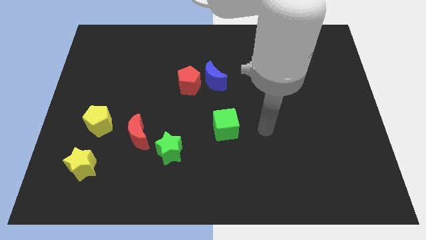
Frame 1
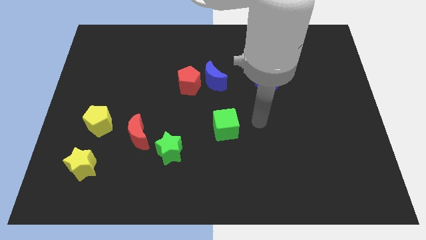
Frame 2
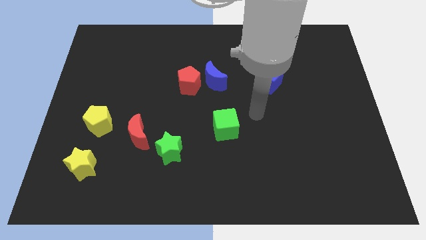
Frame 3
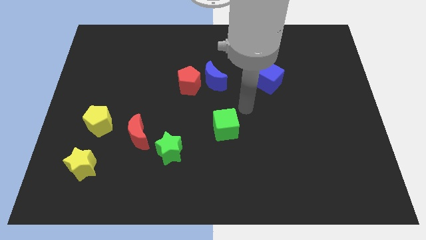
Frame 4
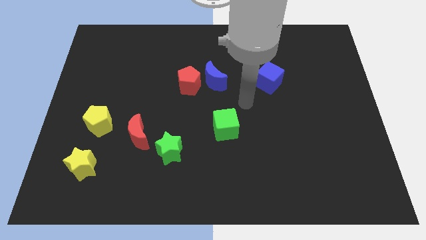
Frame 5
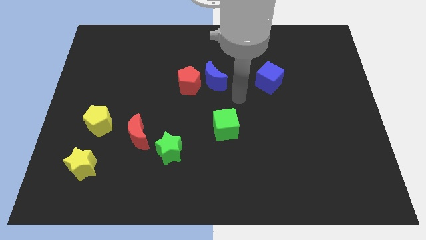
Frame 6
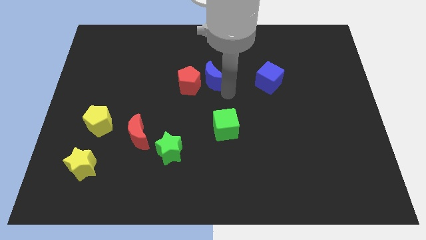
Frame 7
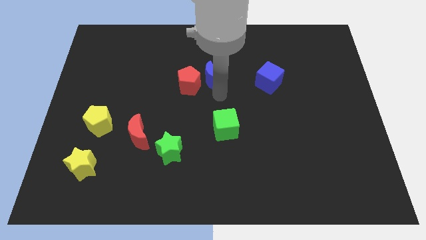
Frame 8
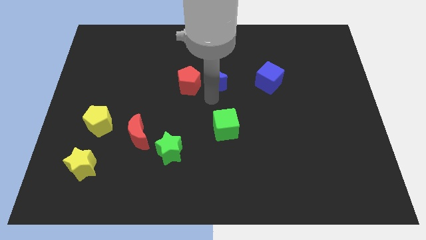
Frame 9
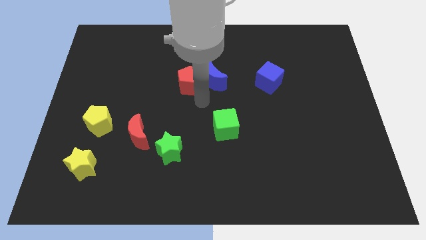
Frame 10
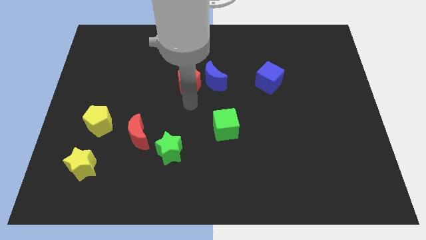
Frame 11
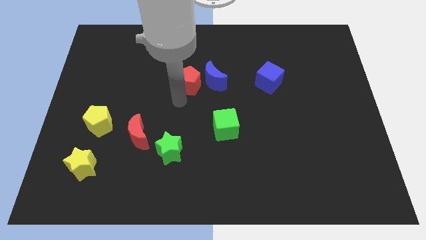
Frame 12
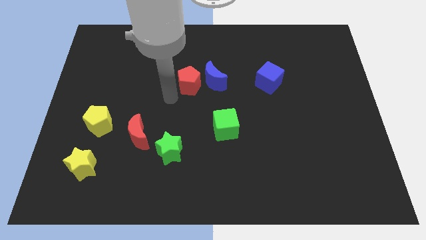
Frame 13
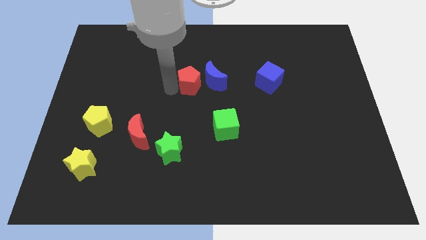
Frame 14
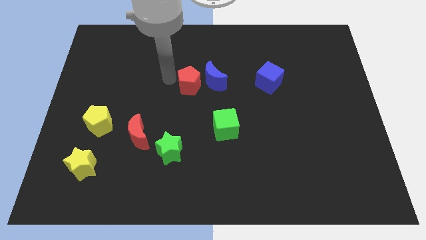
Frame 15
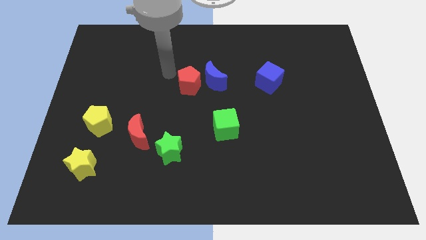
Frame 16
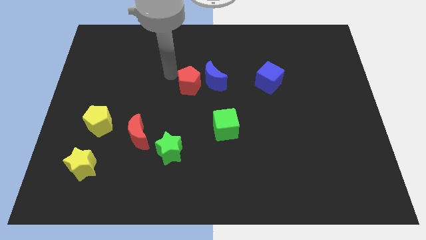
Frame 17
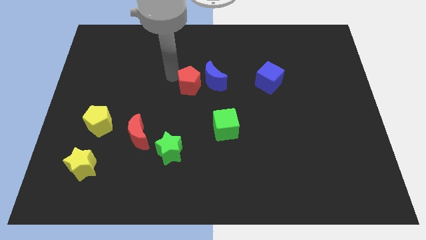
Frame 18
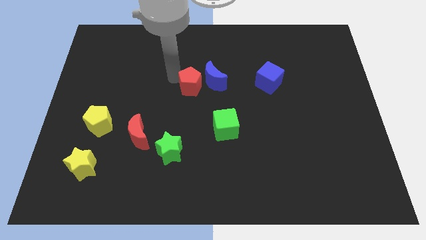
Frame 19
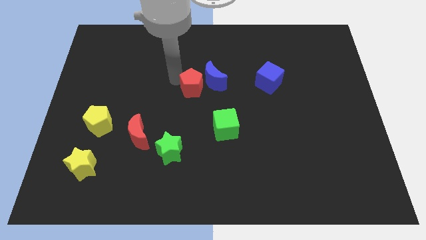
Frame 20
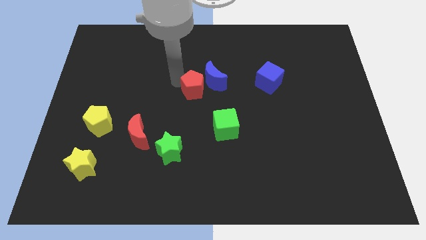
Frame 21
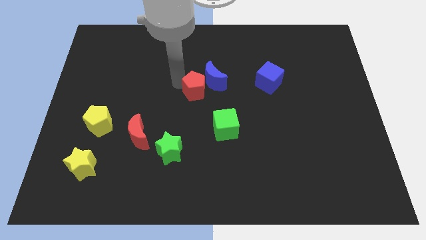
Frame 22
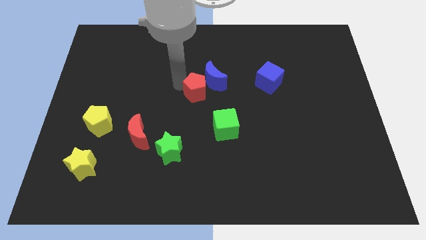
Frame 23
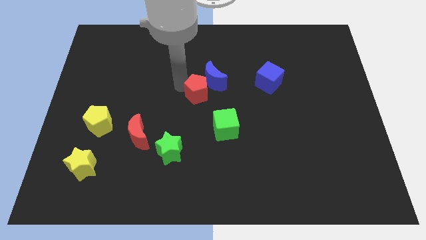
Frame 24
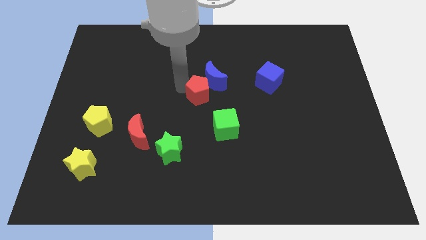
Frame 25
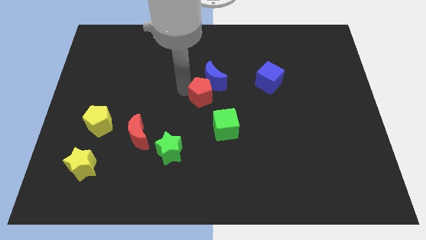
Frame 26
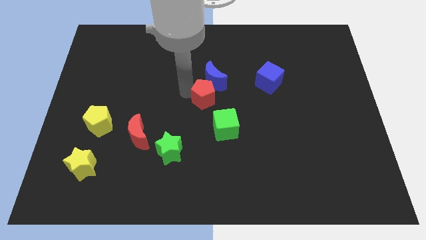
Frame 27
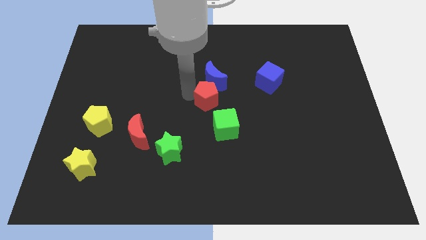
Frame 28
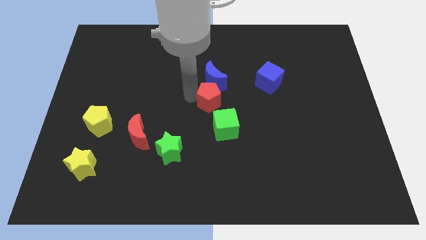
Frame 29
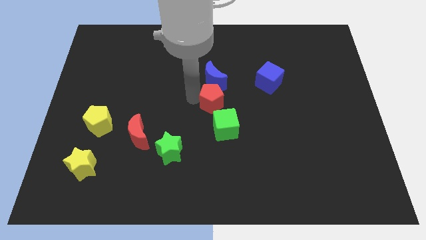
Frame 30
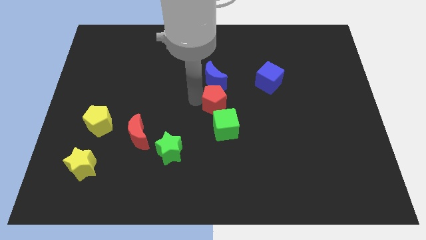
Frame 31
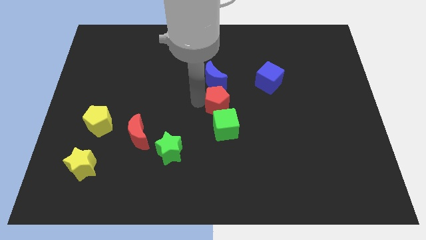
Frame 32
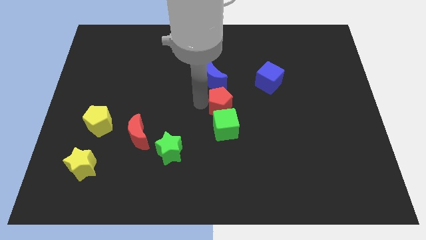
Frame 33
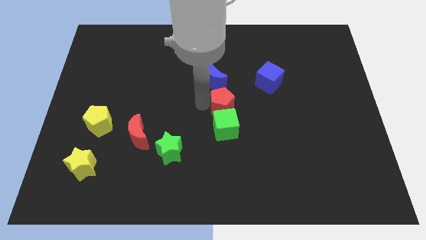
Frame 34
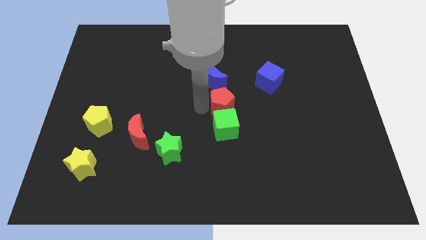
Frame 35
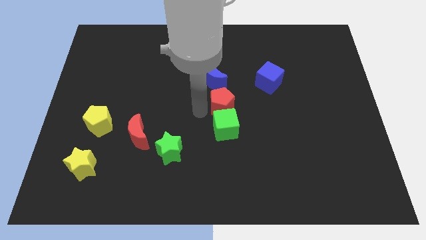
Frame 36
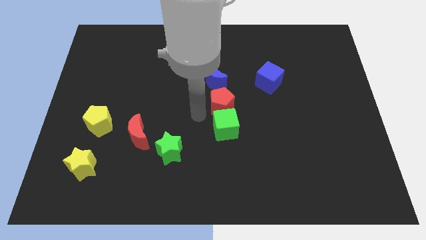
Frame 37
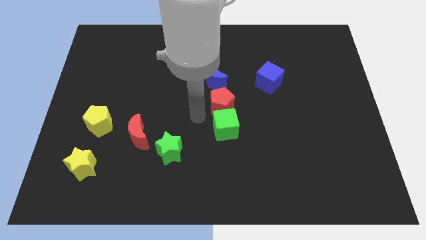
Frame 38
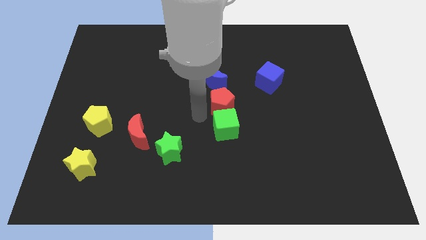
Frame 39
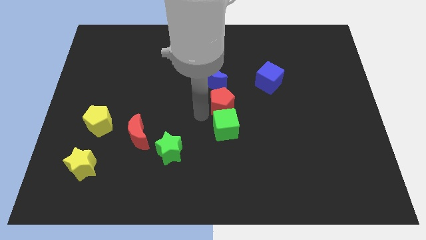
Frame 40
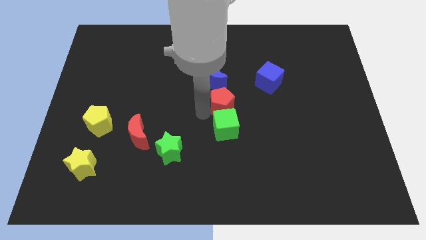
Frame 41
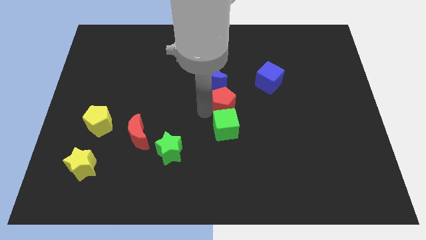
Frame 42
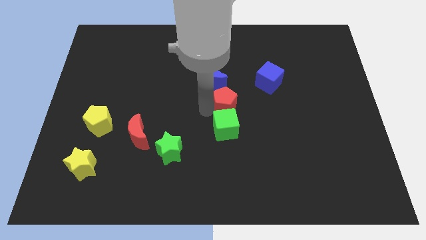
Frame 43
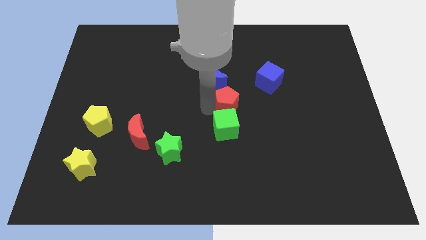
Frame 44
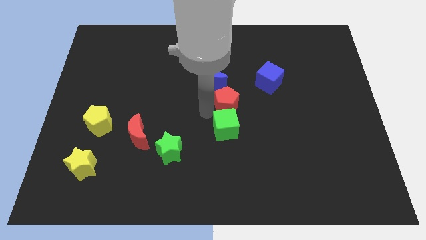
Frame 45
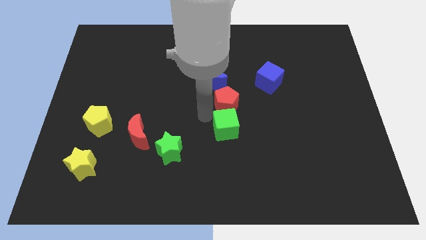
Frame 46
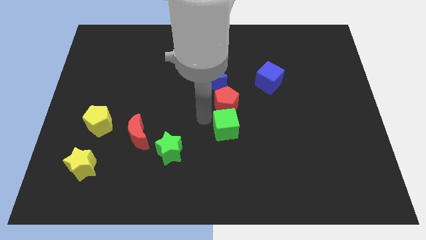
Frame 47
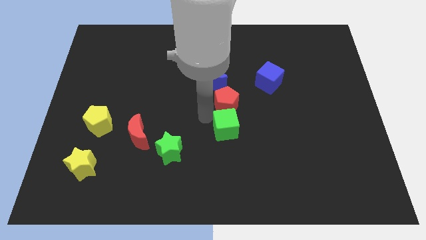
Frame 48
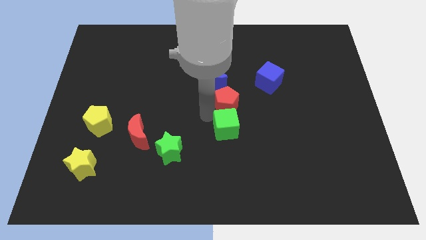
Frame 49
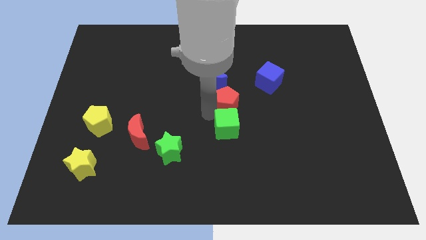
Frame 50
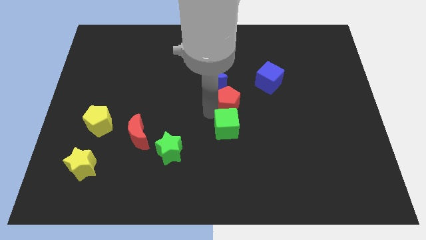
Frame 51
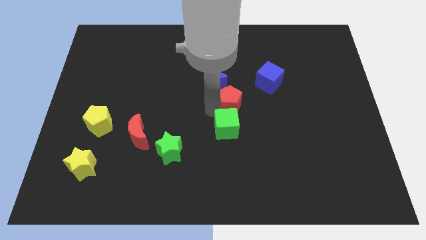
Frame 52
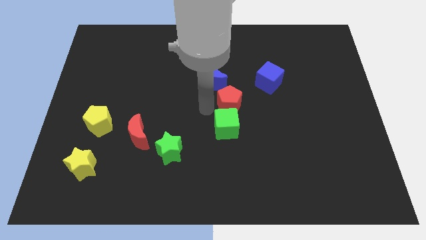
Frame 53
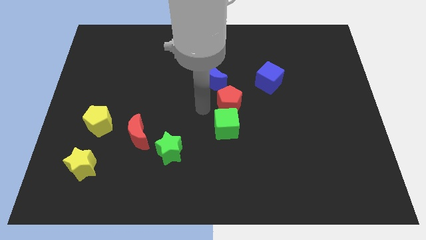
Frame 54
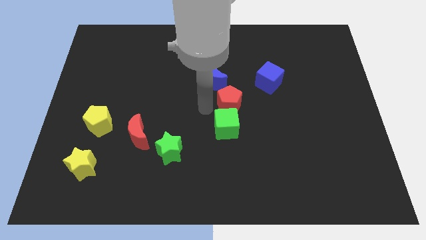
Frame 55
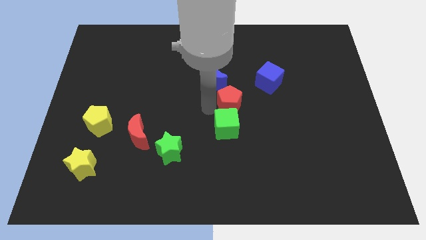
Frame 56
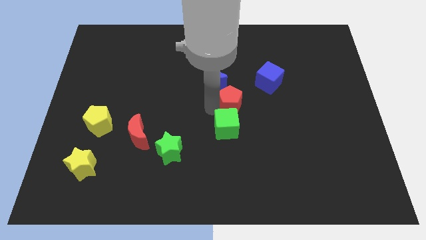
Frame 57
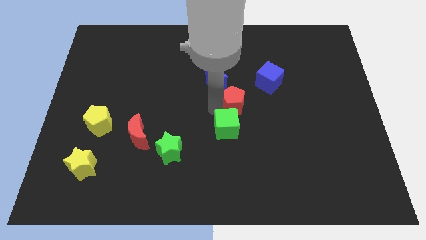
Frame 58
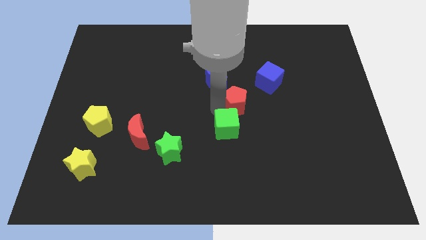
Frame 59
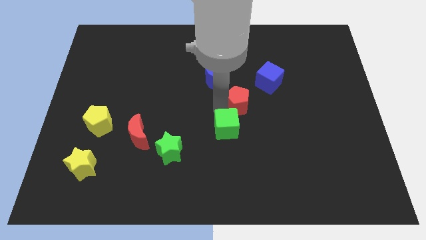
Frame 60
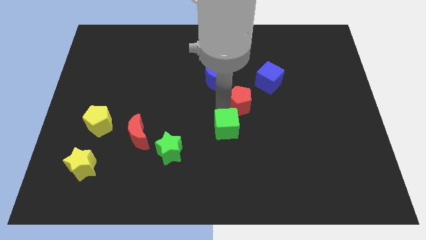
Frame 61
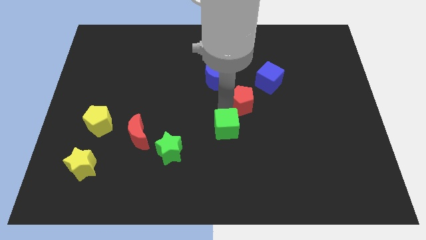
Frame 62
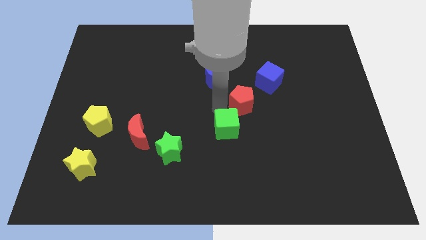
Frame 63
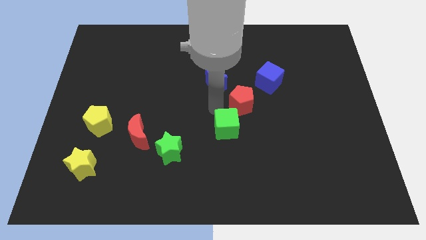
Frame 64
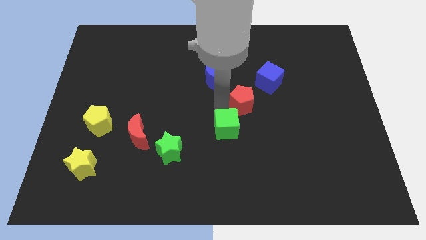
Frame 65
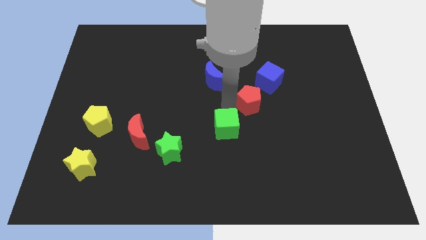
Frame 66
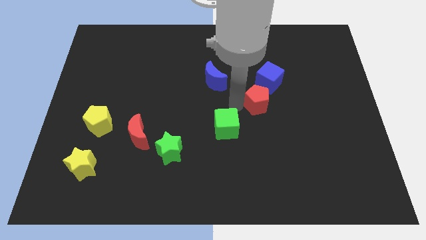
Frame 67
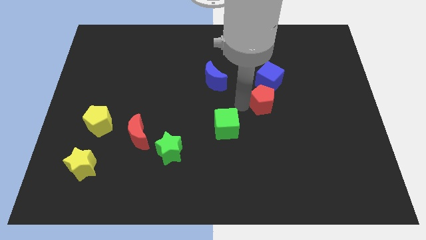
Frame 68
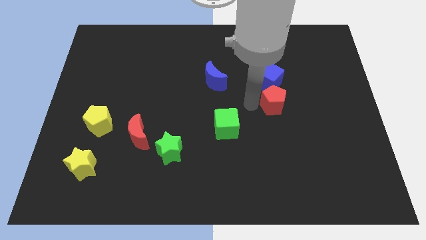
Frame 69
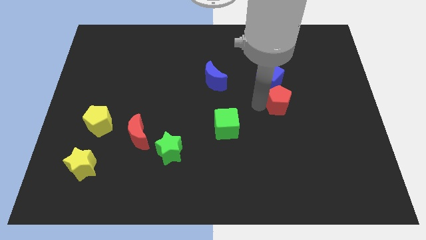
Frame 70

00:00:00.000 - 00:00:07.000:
move the red pentagon right

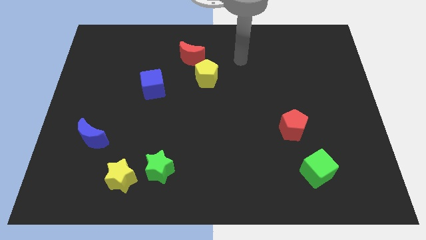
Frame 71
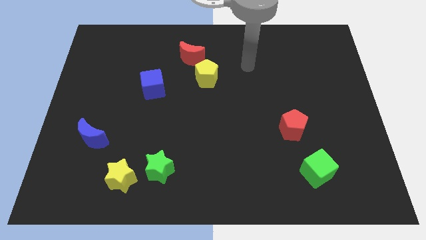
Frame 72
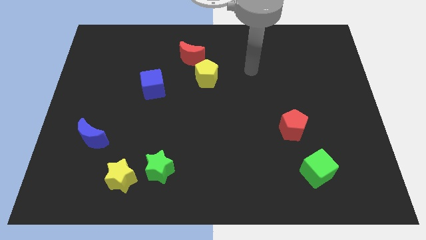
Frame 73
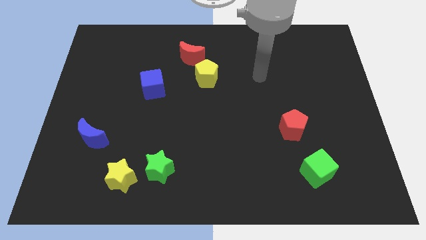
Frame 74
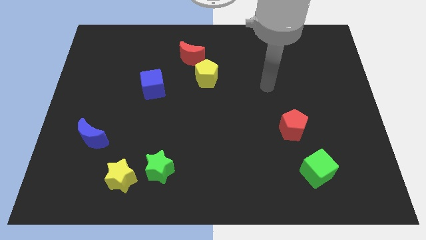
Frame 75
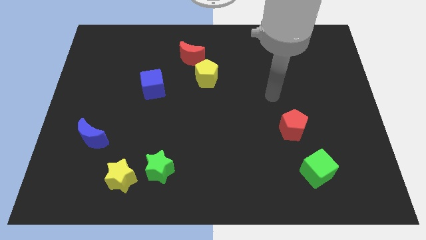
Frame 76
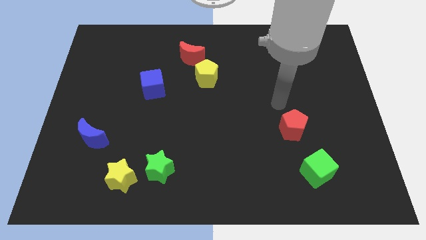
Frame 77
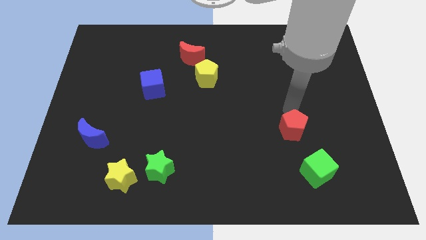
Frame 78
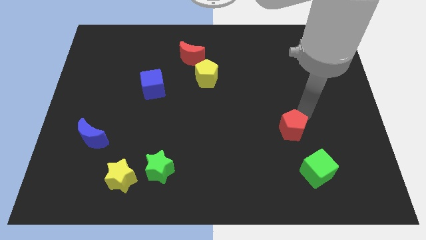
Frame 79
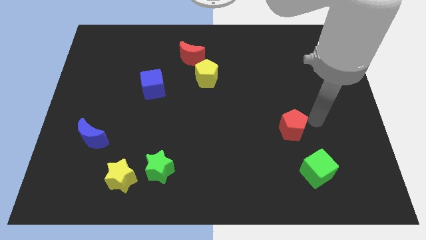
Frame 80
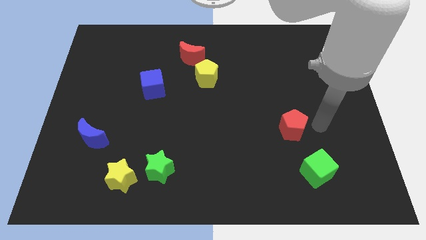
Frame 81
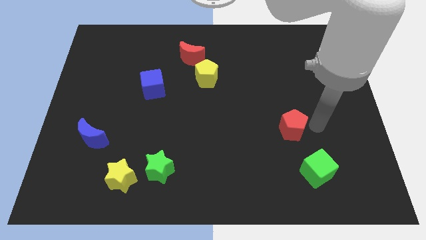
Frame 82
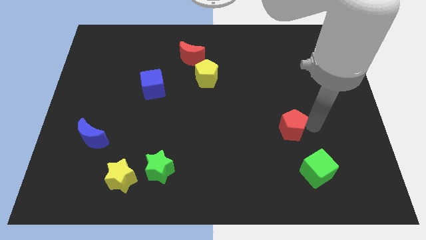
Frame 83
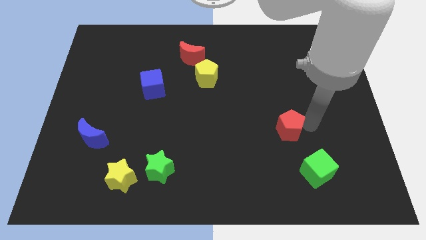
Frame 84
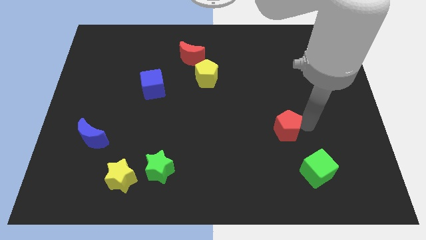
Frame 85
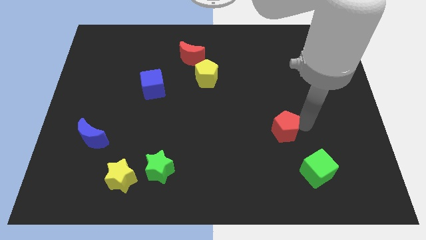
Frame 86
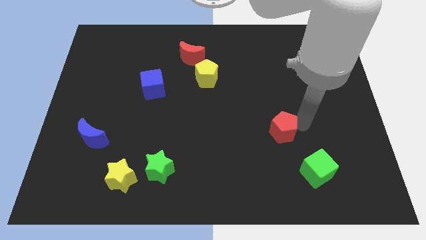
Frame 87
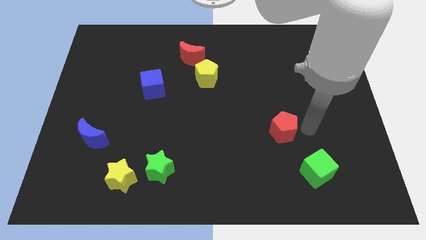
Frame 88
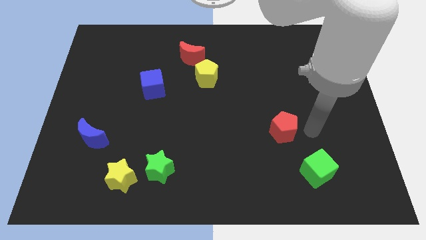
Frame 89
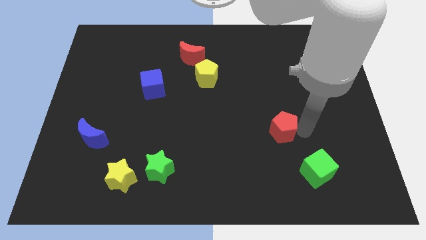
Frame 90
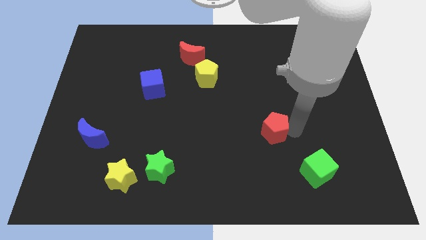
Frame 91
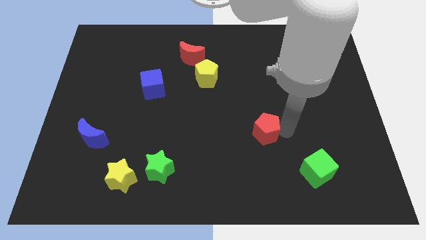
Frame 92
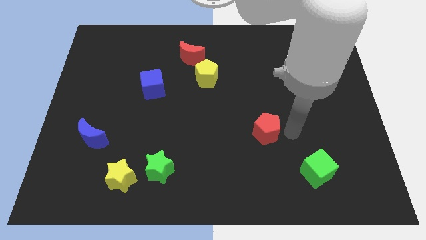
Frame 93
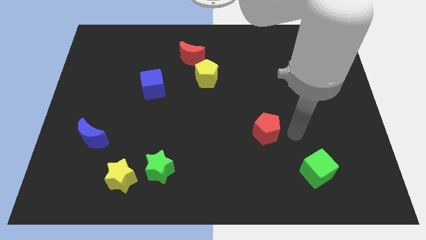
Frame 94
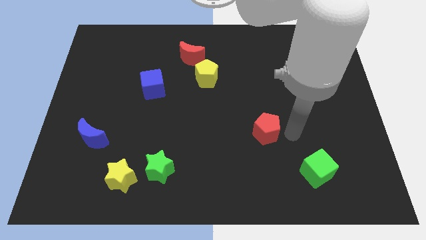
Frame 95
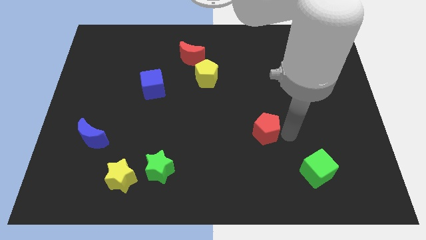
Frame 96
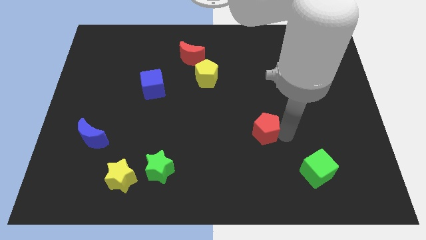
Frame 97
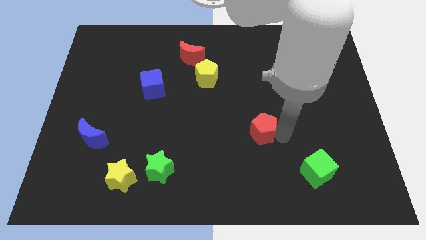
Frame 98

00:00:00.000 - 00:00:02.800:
slightly push the red pentagon to the left
